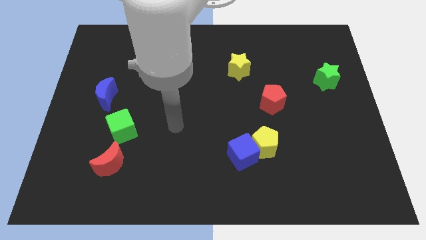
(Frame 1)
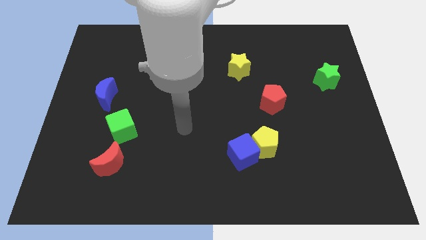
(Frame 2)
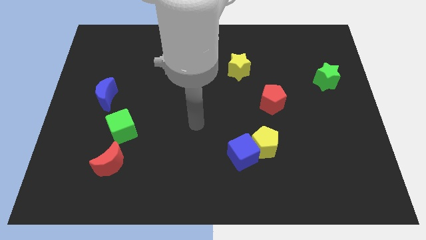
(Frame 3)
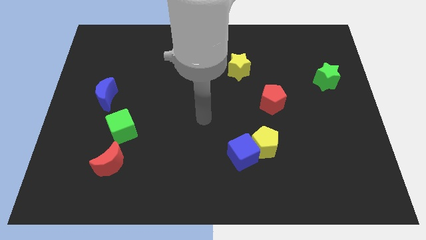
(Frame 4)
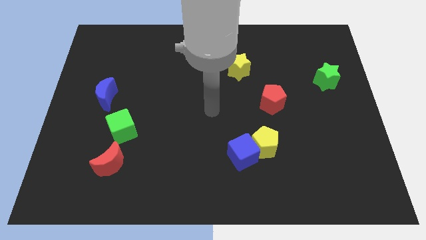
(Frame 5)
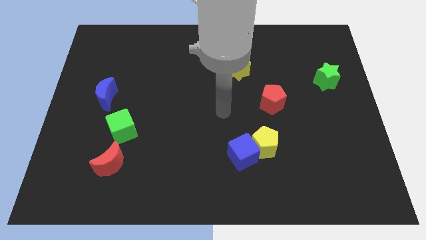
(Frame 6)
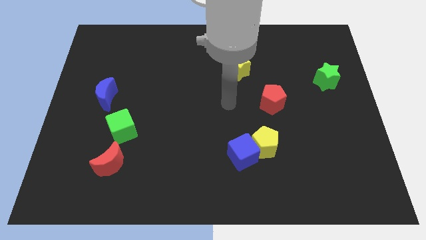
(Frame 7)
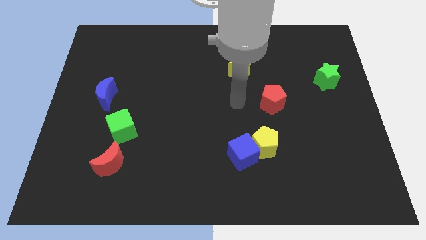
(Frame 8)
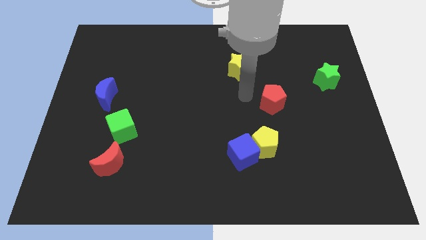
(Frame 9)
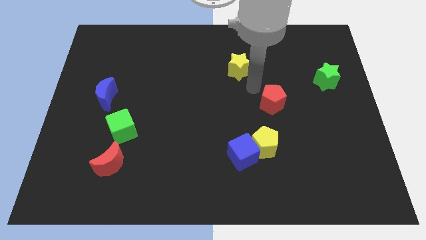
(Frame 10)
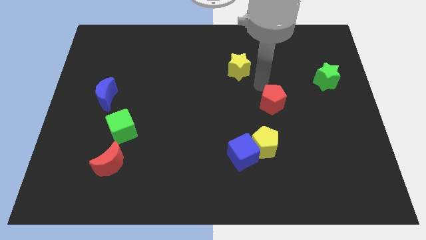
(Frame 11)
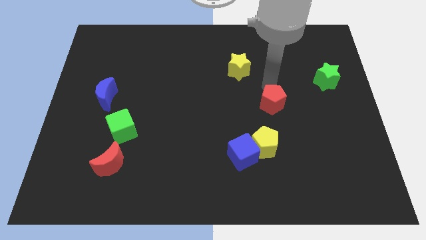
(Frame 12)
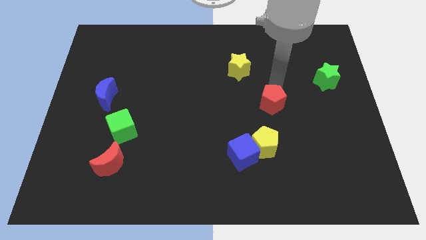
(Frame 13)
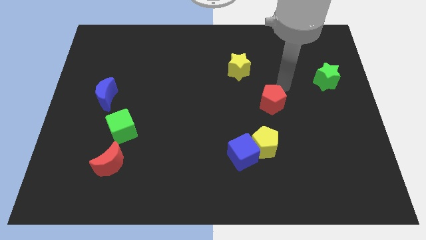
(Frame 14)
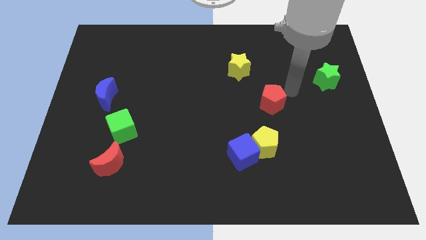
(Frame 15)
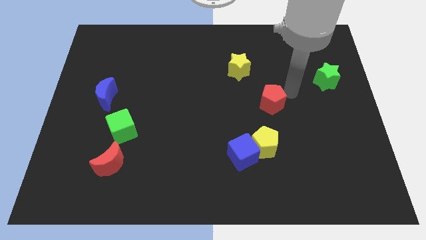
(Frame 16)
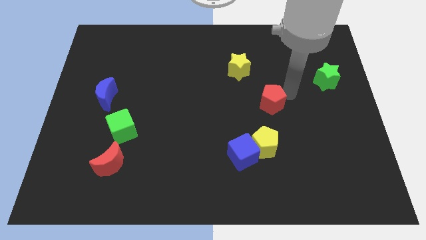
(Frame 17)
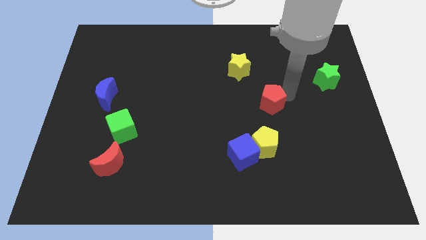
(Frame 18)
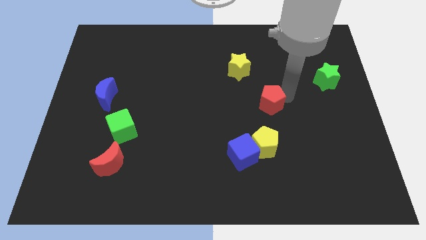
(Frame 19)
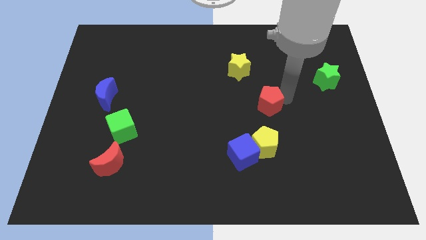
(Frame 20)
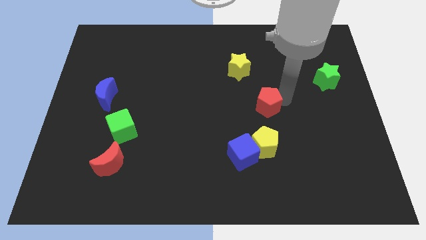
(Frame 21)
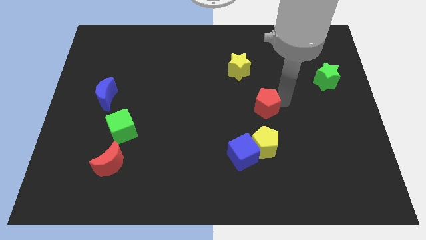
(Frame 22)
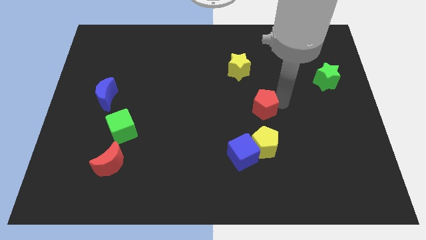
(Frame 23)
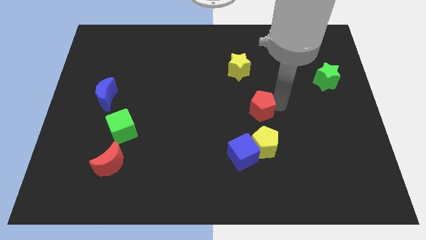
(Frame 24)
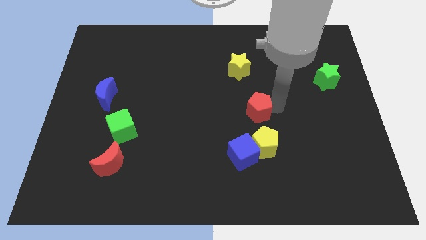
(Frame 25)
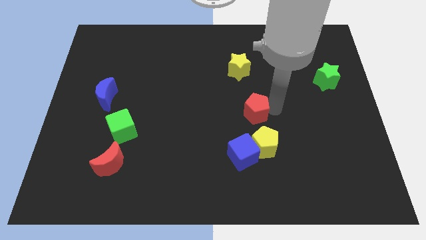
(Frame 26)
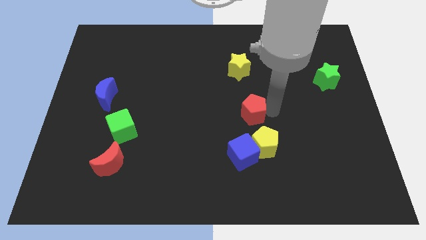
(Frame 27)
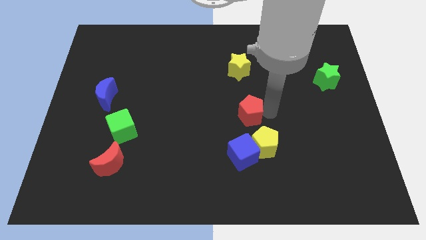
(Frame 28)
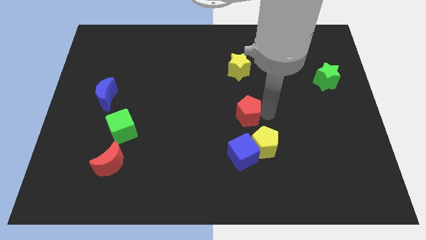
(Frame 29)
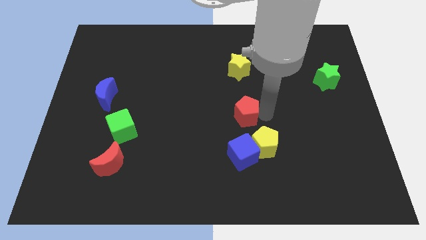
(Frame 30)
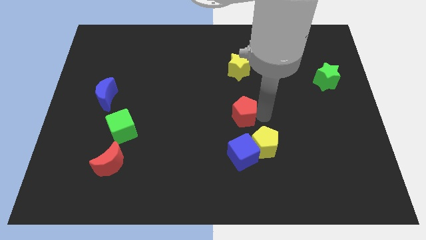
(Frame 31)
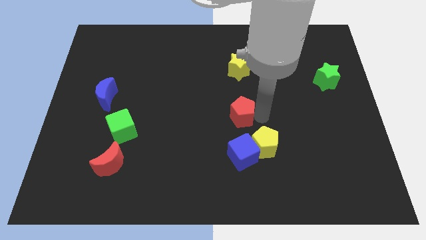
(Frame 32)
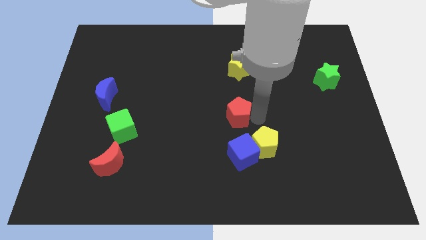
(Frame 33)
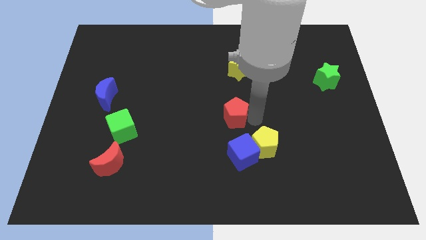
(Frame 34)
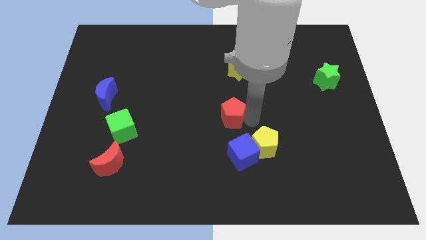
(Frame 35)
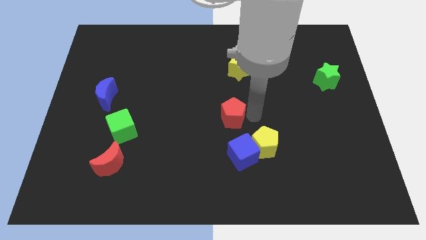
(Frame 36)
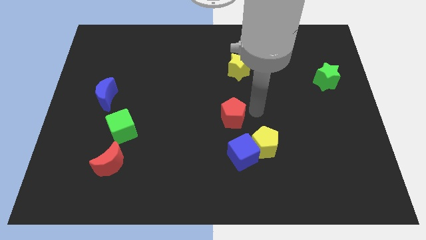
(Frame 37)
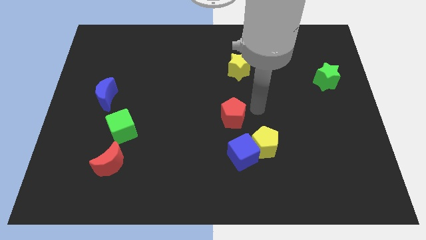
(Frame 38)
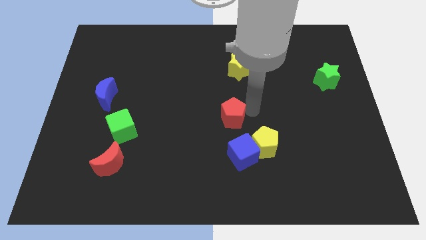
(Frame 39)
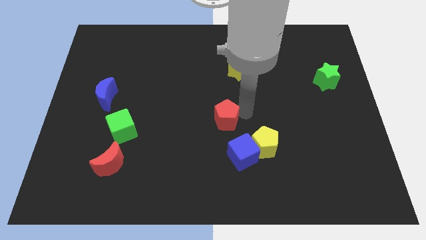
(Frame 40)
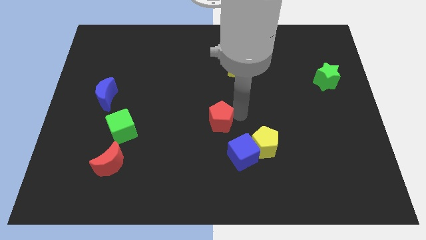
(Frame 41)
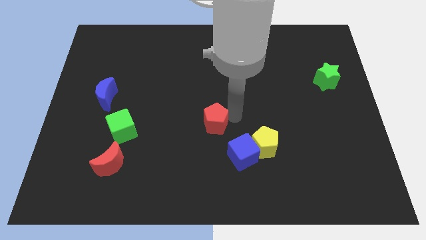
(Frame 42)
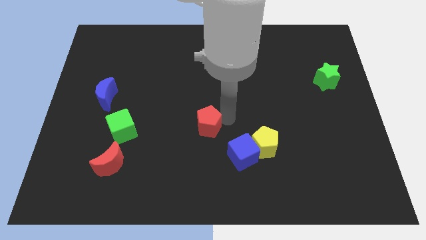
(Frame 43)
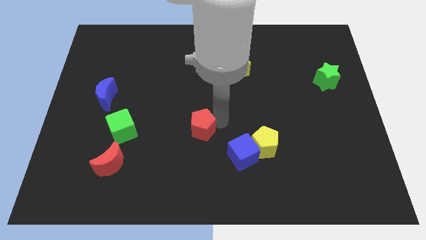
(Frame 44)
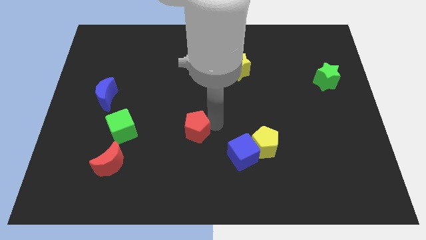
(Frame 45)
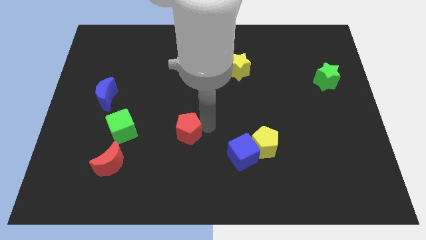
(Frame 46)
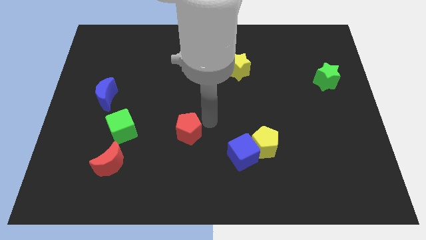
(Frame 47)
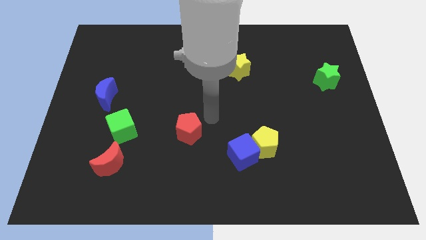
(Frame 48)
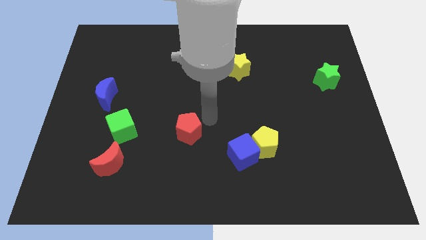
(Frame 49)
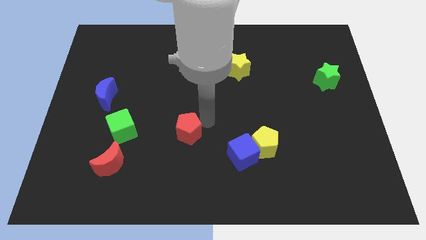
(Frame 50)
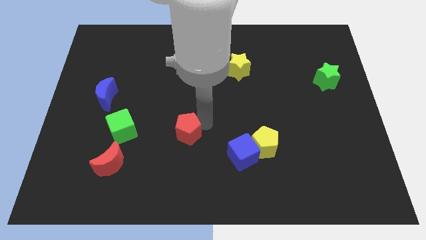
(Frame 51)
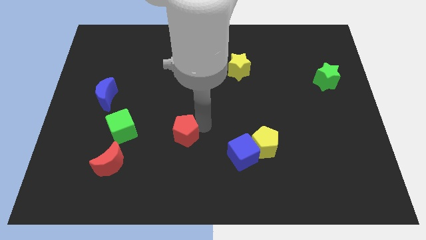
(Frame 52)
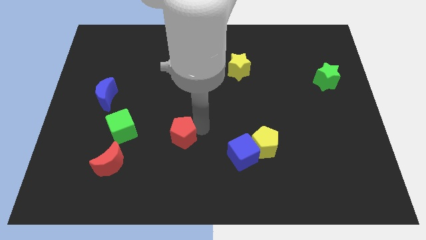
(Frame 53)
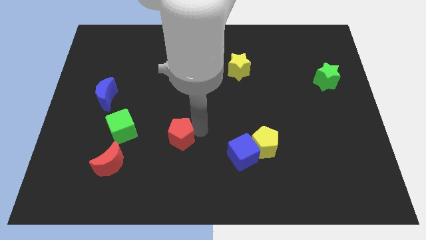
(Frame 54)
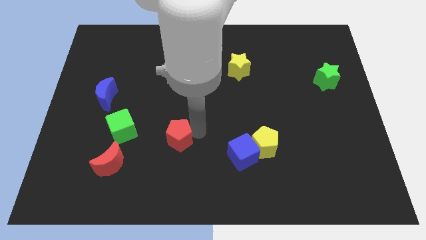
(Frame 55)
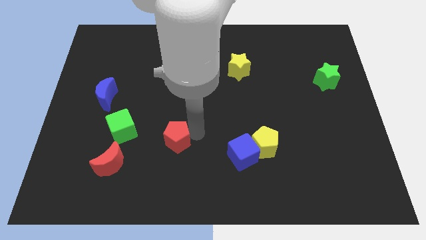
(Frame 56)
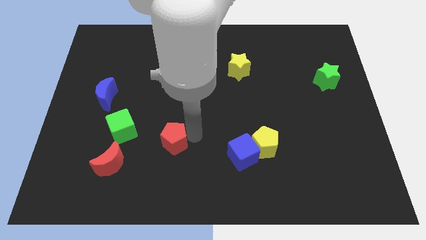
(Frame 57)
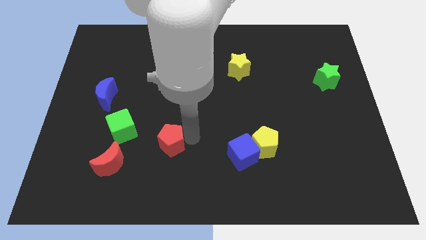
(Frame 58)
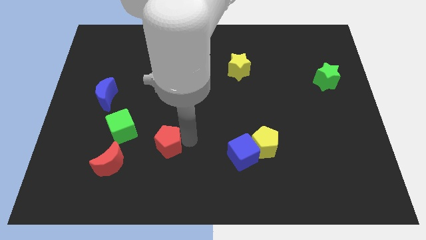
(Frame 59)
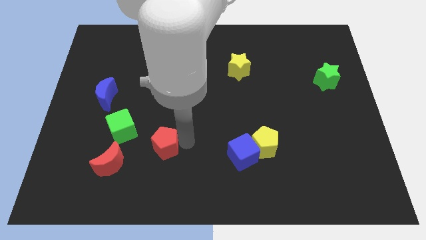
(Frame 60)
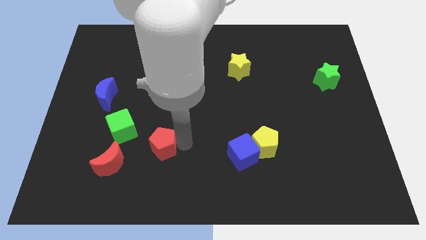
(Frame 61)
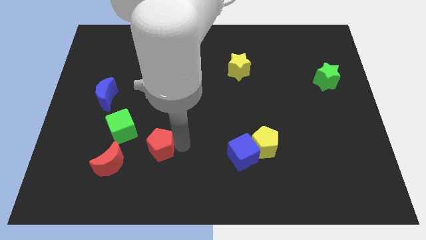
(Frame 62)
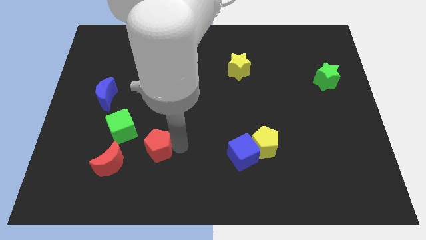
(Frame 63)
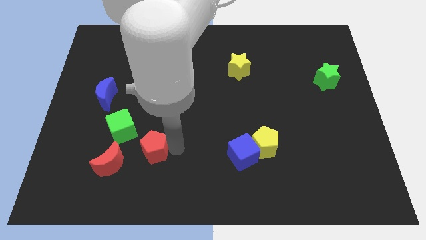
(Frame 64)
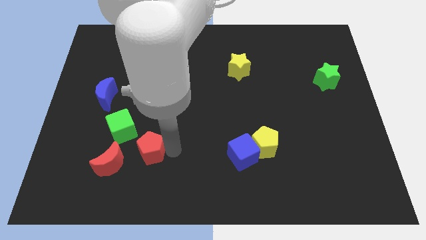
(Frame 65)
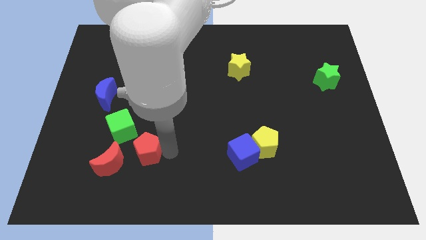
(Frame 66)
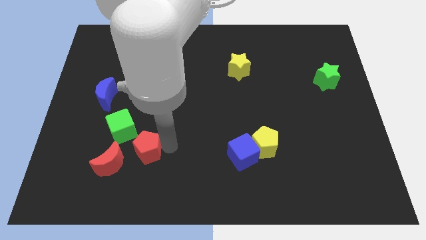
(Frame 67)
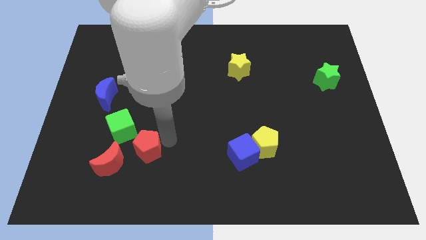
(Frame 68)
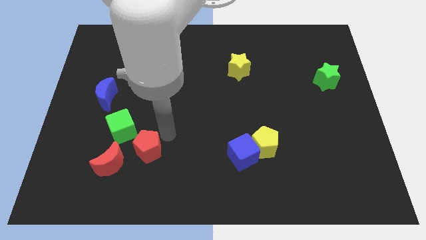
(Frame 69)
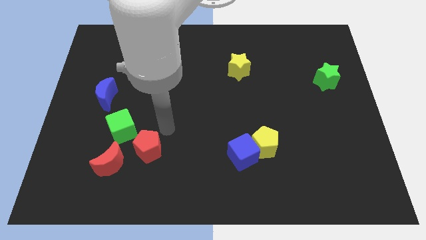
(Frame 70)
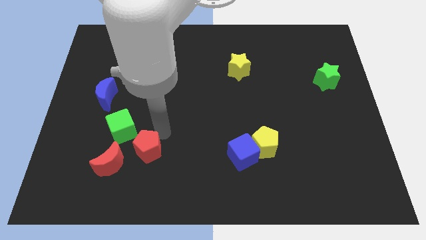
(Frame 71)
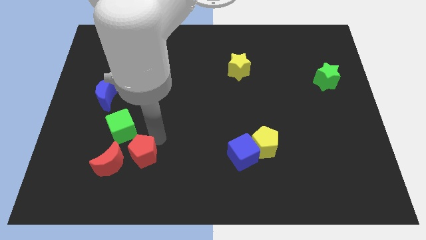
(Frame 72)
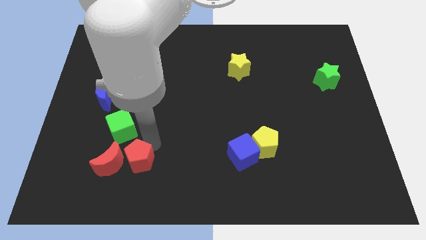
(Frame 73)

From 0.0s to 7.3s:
slide the red pentagon to the bottom of the green cube
